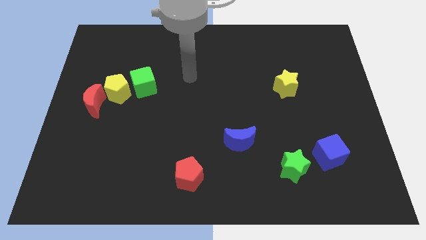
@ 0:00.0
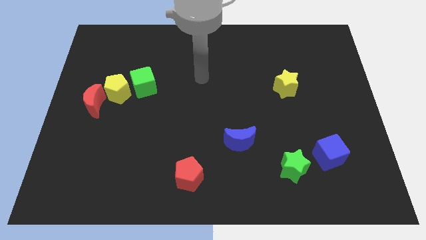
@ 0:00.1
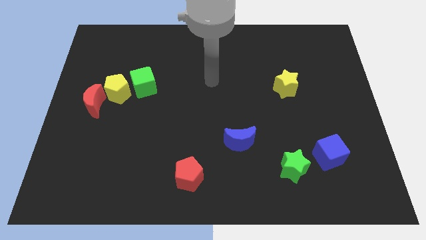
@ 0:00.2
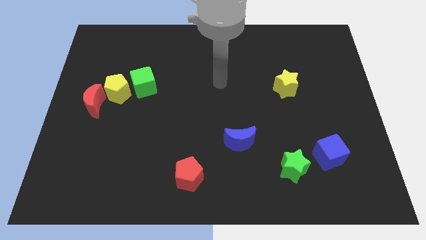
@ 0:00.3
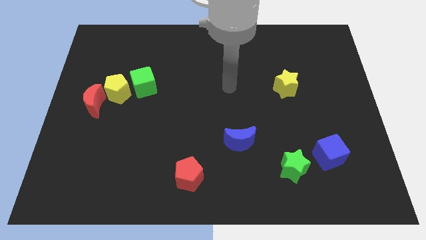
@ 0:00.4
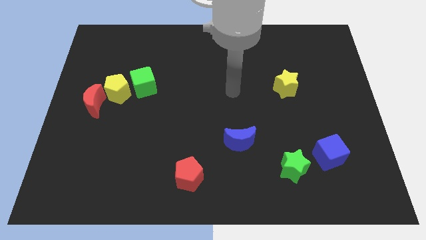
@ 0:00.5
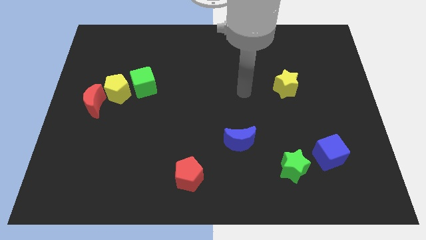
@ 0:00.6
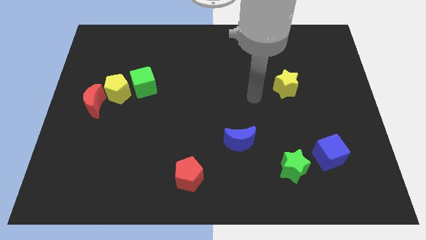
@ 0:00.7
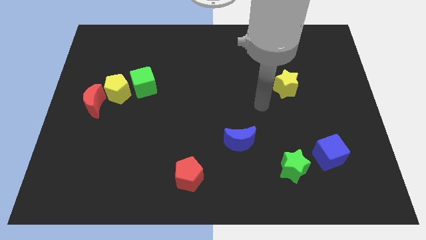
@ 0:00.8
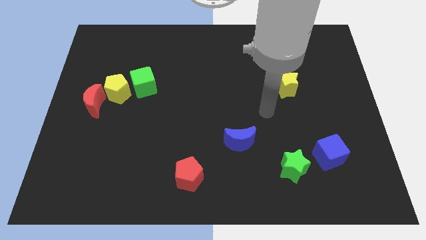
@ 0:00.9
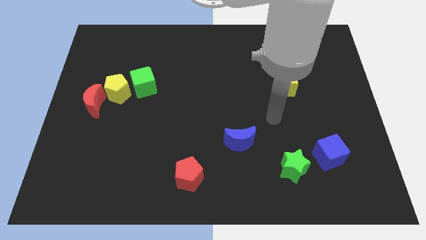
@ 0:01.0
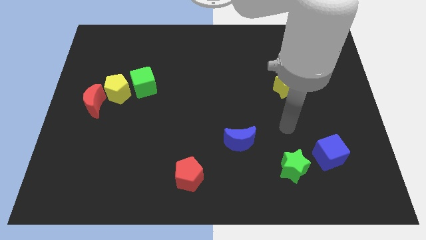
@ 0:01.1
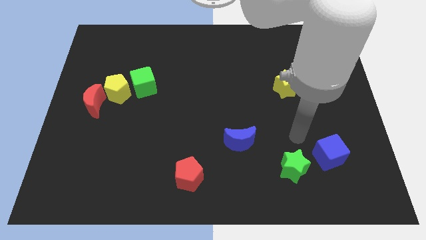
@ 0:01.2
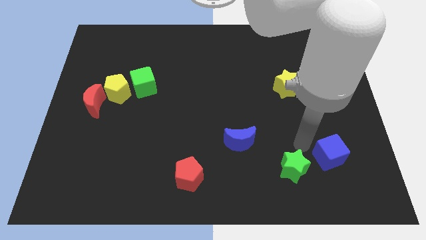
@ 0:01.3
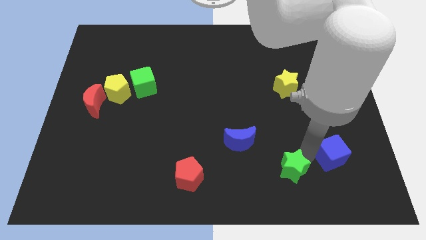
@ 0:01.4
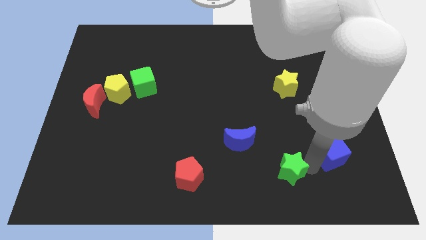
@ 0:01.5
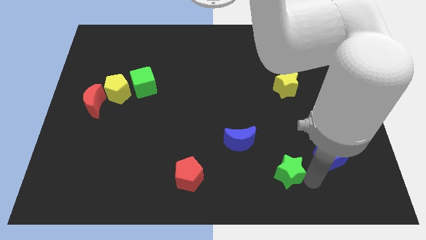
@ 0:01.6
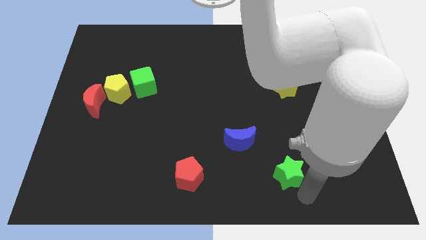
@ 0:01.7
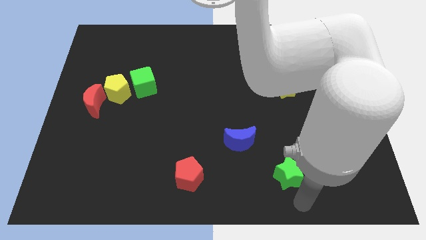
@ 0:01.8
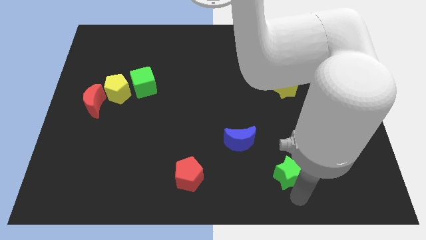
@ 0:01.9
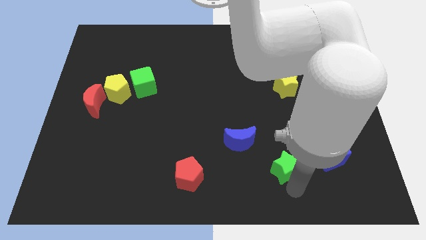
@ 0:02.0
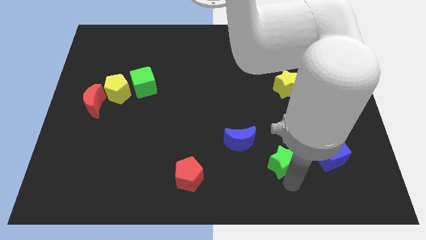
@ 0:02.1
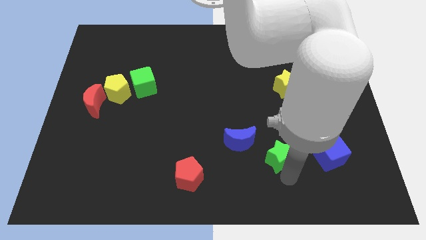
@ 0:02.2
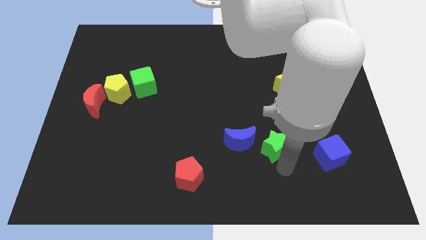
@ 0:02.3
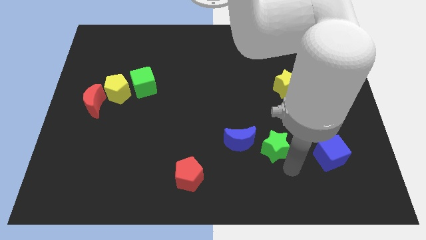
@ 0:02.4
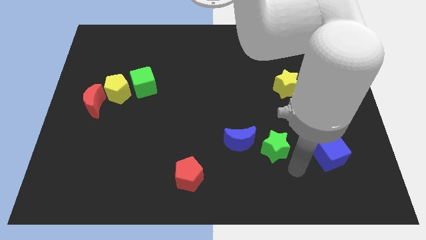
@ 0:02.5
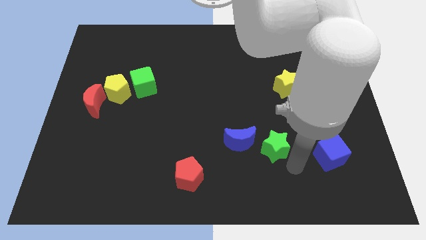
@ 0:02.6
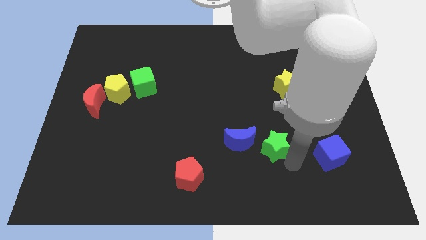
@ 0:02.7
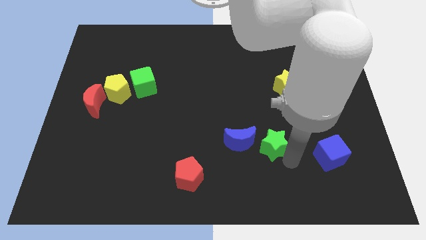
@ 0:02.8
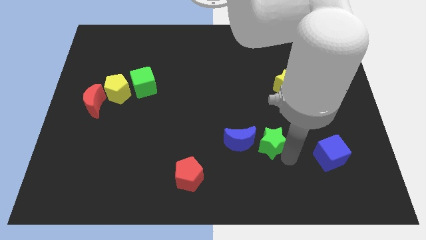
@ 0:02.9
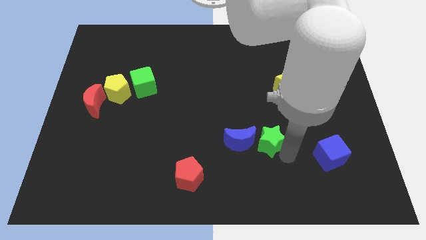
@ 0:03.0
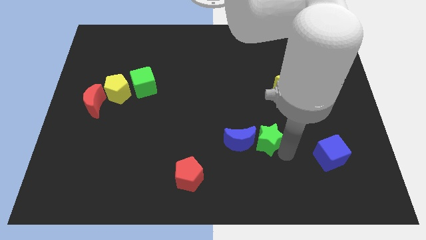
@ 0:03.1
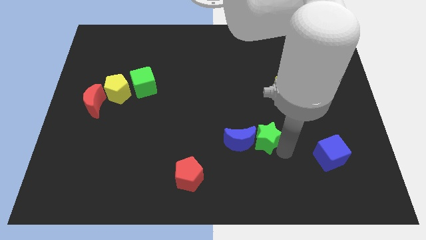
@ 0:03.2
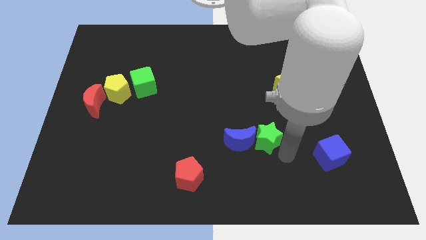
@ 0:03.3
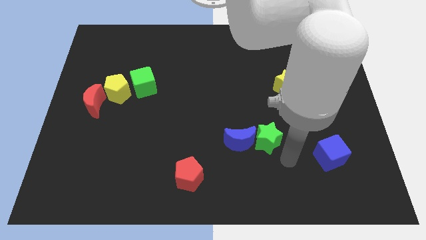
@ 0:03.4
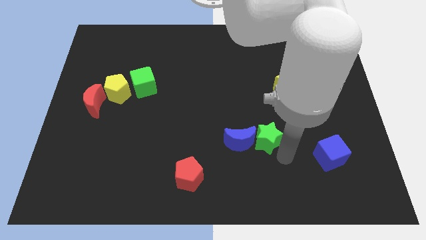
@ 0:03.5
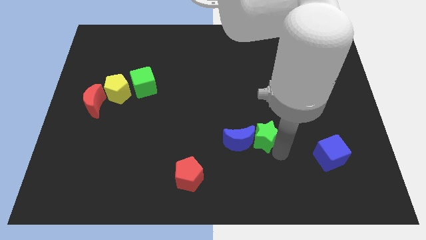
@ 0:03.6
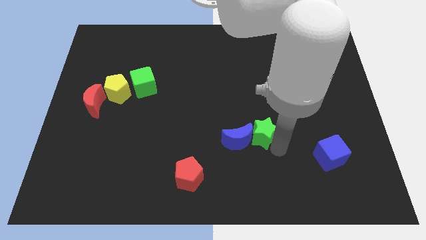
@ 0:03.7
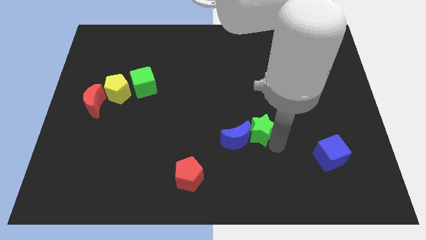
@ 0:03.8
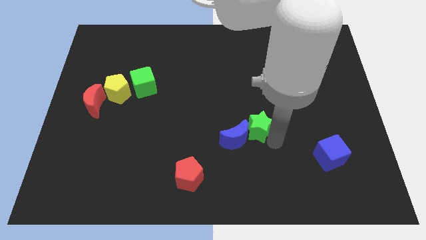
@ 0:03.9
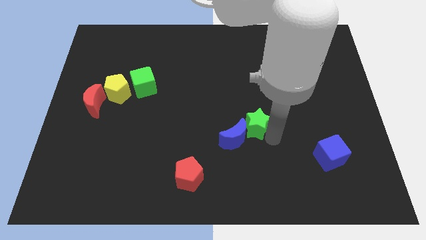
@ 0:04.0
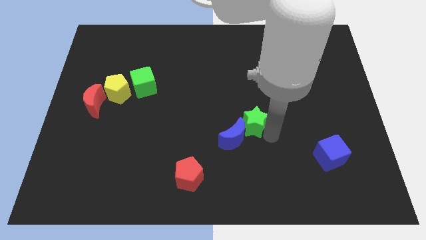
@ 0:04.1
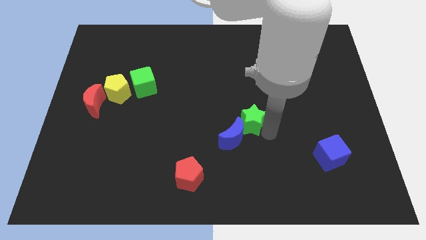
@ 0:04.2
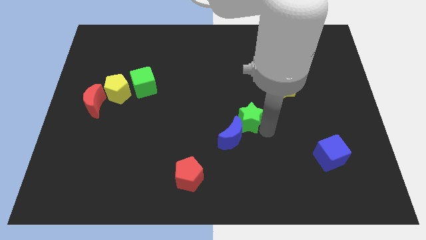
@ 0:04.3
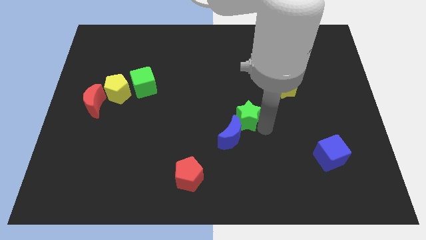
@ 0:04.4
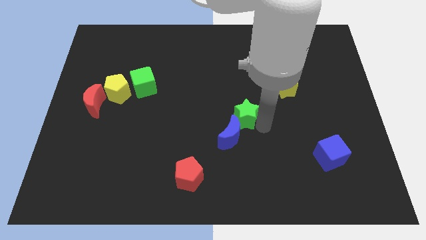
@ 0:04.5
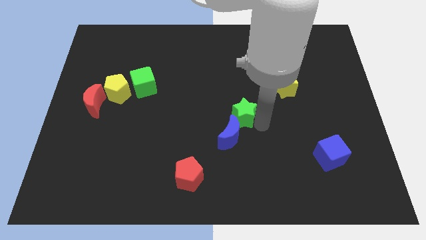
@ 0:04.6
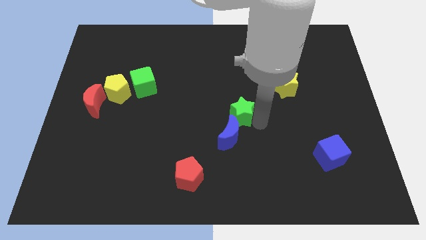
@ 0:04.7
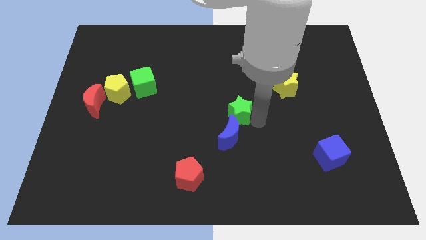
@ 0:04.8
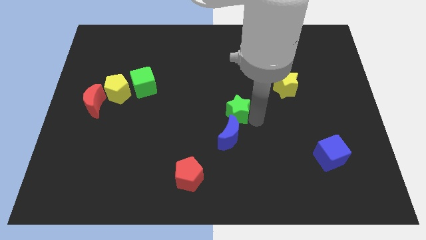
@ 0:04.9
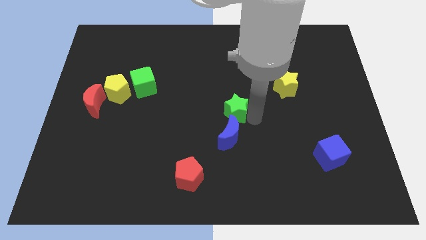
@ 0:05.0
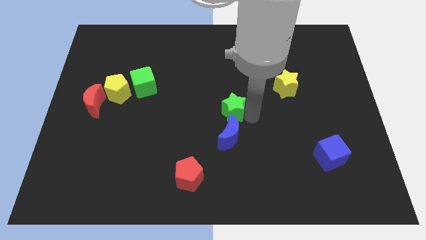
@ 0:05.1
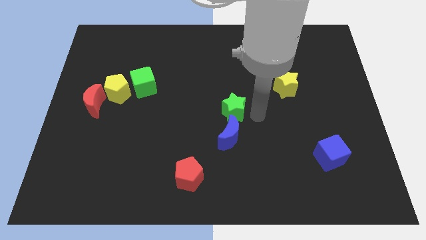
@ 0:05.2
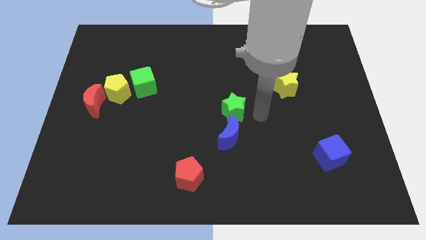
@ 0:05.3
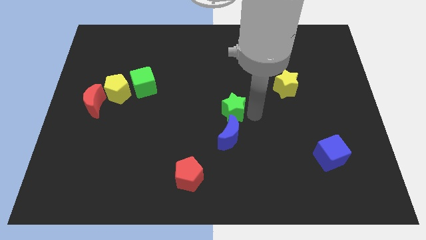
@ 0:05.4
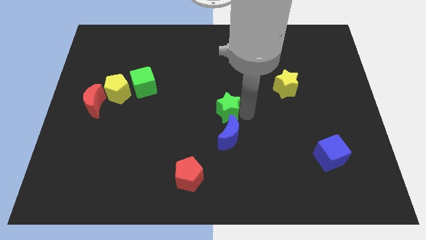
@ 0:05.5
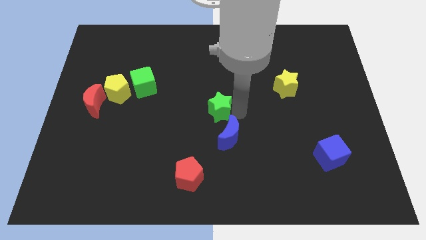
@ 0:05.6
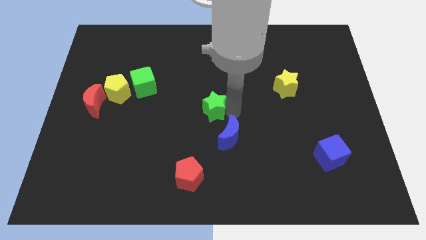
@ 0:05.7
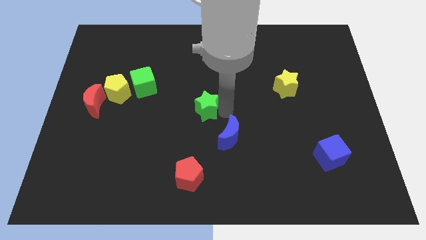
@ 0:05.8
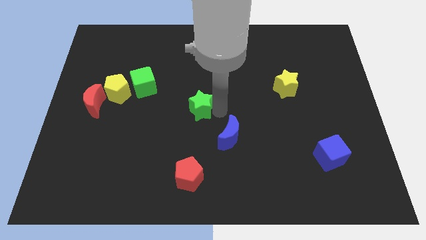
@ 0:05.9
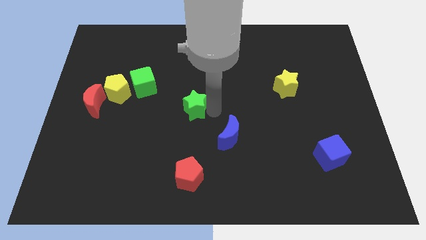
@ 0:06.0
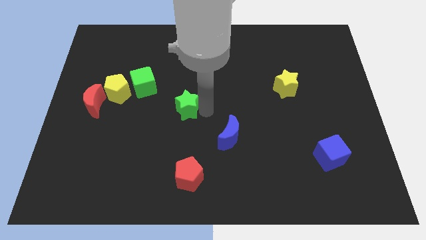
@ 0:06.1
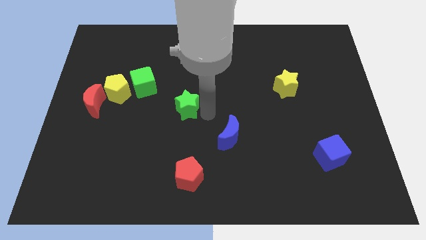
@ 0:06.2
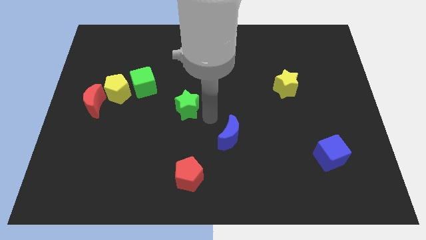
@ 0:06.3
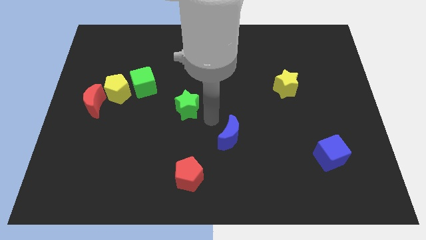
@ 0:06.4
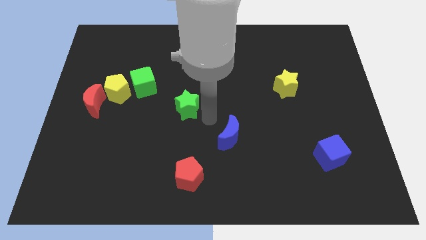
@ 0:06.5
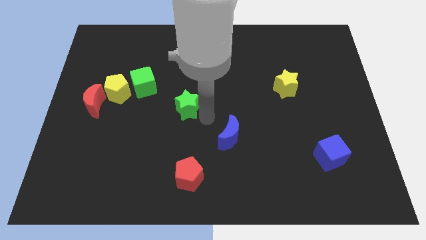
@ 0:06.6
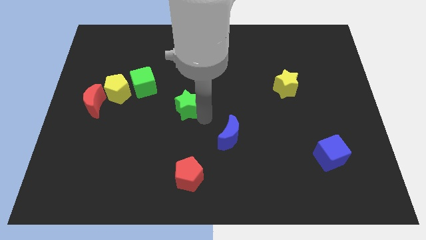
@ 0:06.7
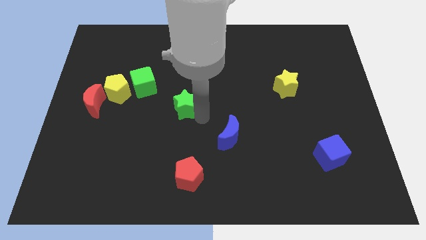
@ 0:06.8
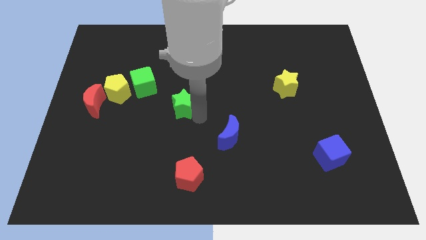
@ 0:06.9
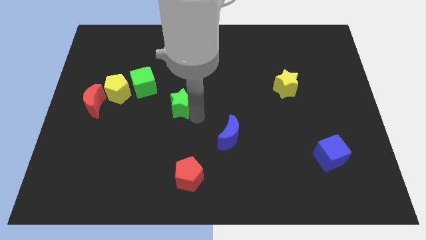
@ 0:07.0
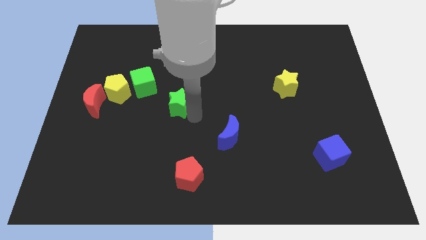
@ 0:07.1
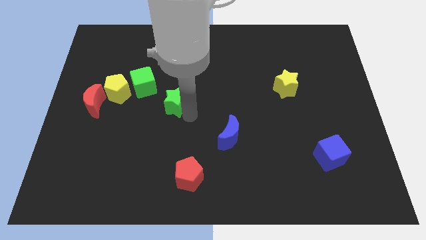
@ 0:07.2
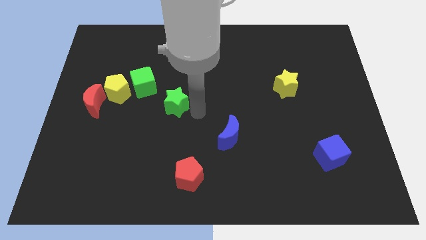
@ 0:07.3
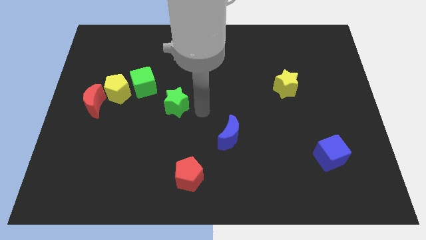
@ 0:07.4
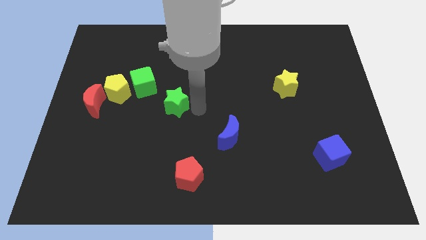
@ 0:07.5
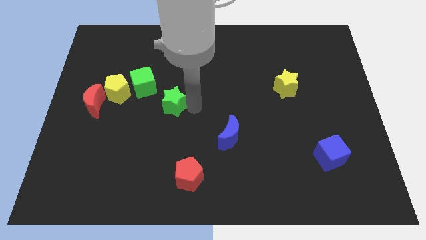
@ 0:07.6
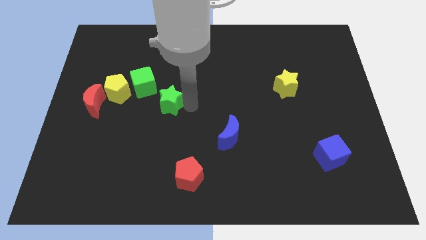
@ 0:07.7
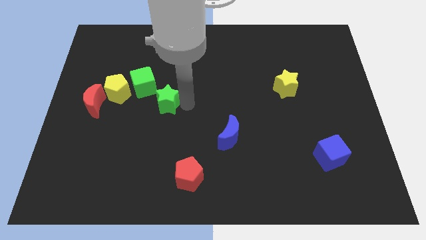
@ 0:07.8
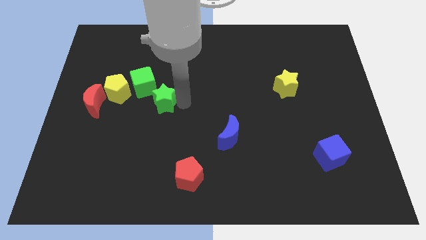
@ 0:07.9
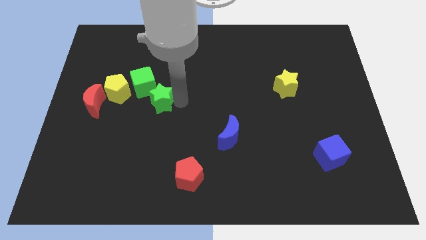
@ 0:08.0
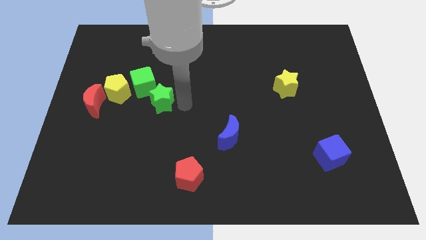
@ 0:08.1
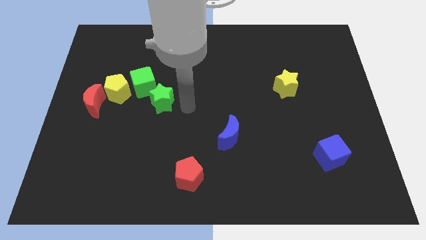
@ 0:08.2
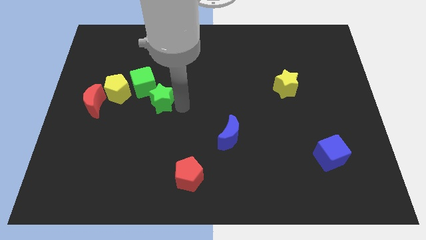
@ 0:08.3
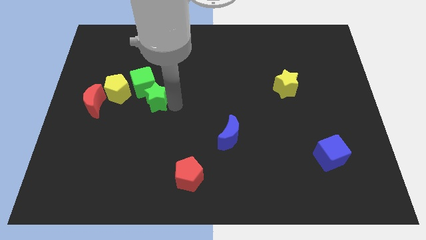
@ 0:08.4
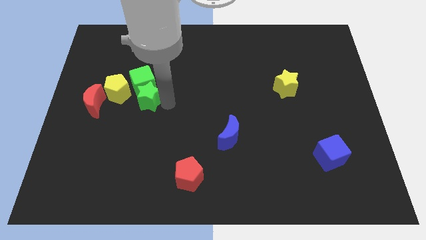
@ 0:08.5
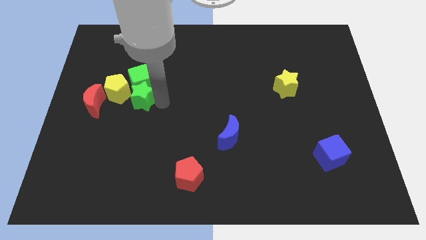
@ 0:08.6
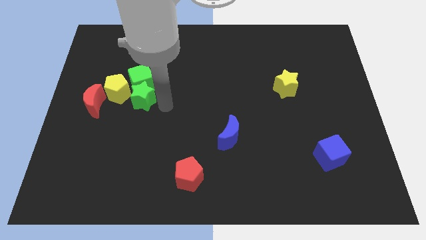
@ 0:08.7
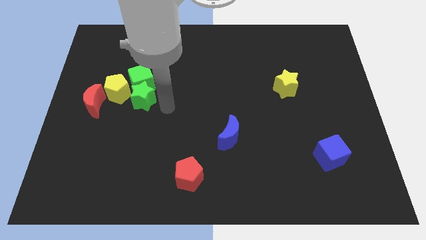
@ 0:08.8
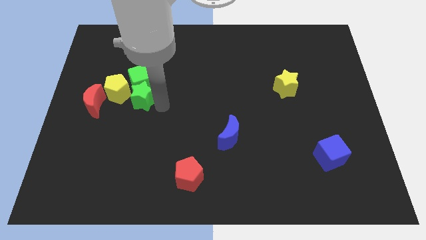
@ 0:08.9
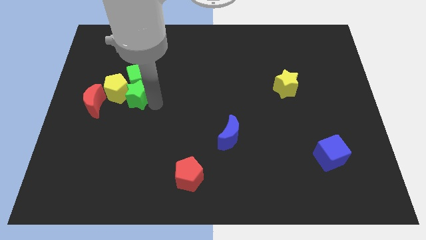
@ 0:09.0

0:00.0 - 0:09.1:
put the green star towards the yellow pentagon
